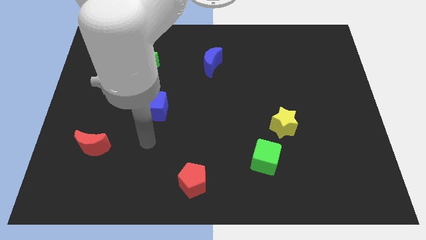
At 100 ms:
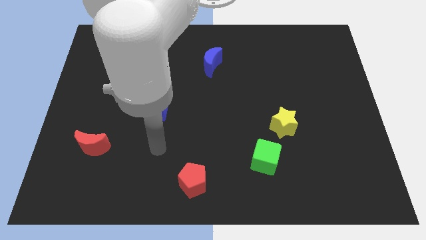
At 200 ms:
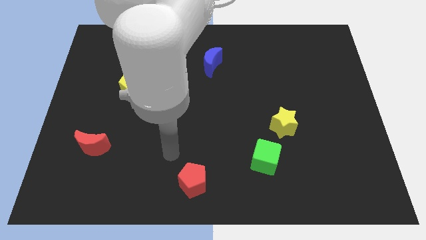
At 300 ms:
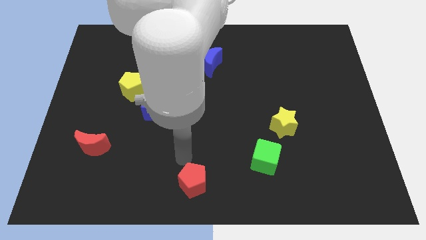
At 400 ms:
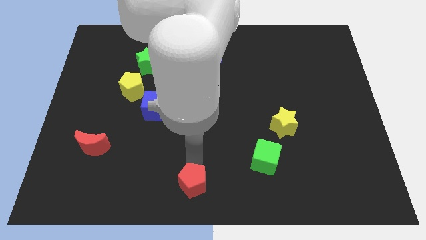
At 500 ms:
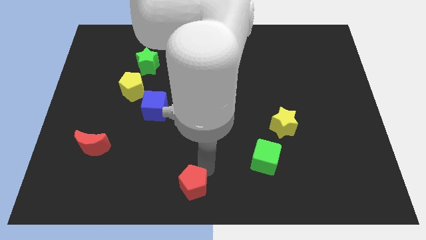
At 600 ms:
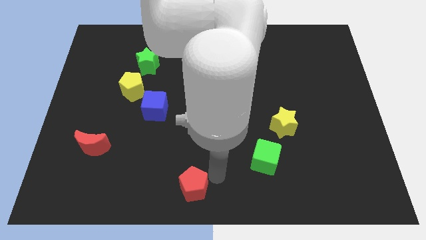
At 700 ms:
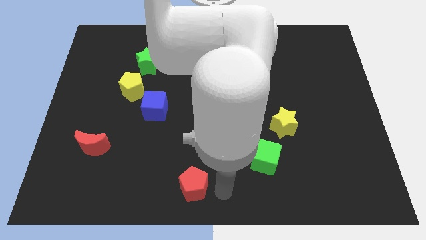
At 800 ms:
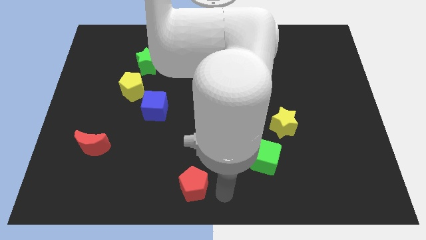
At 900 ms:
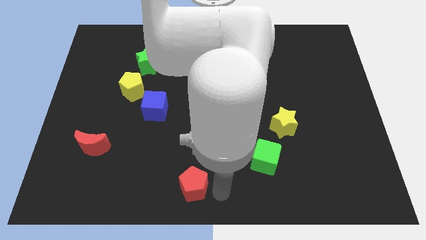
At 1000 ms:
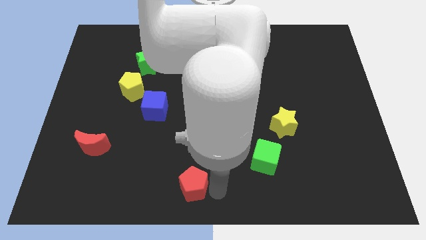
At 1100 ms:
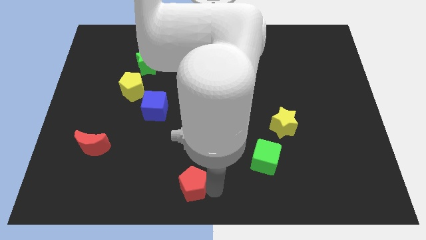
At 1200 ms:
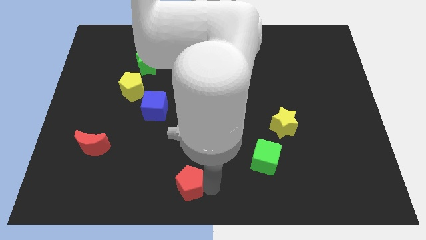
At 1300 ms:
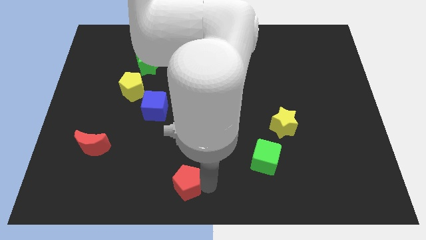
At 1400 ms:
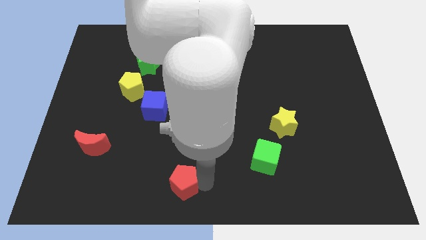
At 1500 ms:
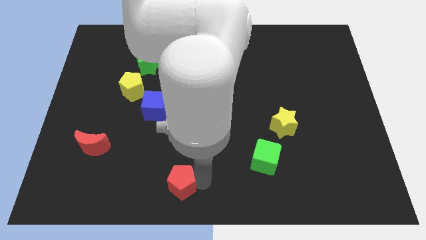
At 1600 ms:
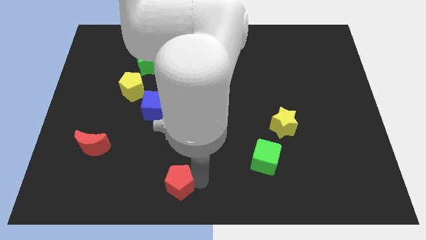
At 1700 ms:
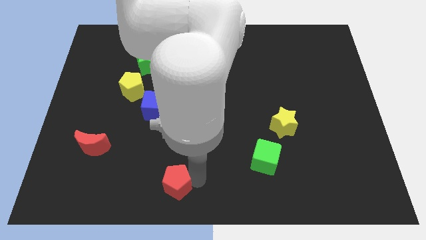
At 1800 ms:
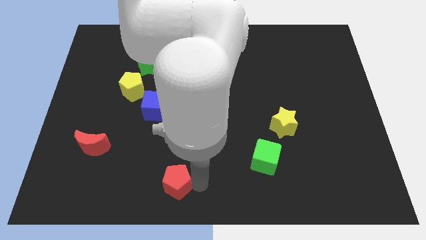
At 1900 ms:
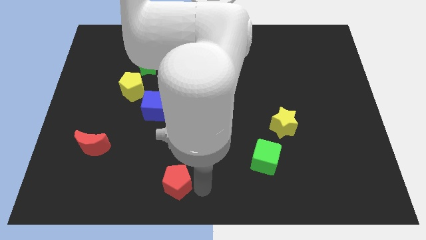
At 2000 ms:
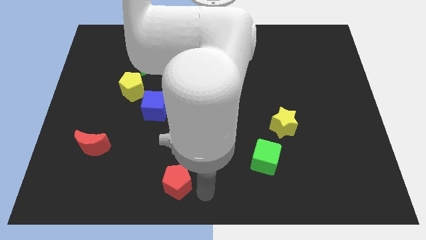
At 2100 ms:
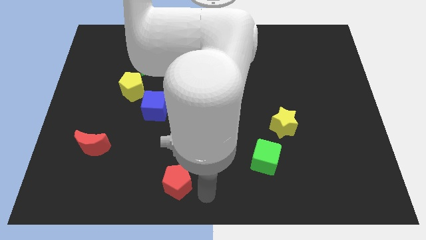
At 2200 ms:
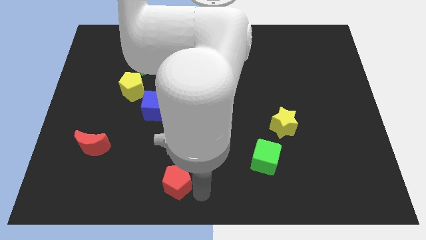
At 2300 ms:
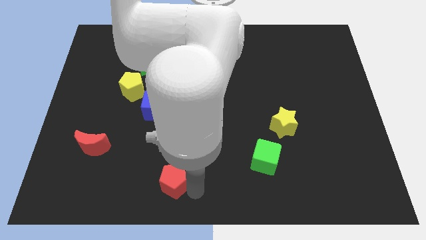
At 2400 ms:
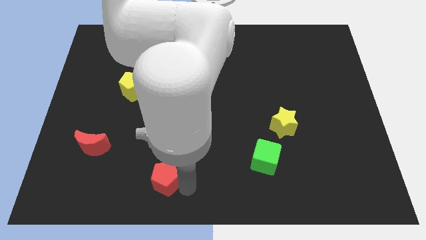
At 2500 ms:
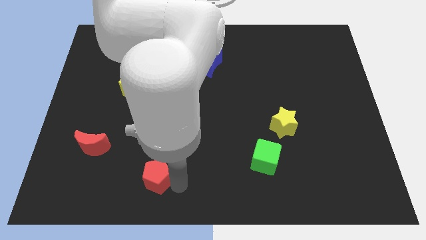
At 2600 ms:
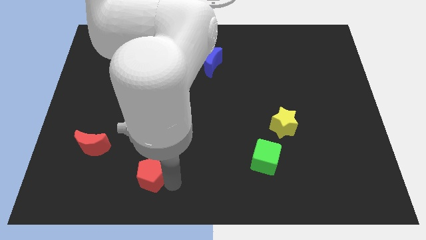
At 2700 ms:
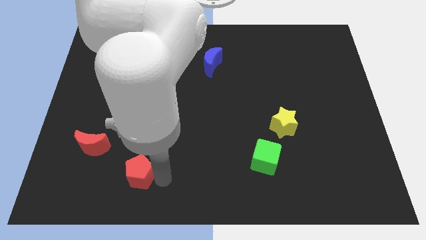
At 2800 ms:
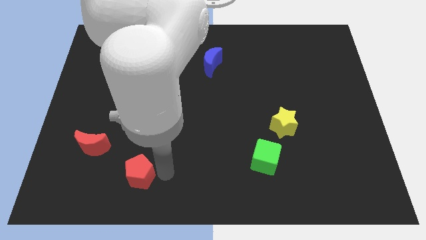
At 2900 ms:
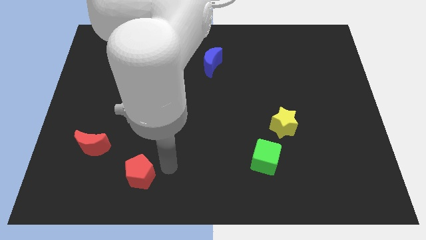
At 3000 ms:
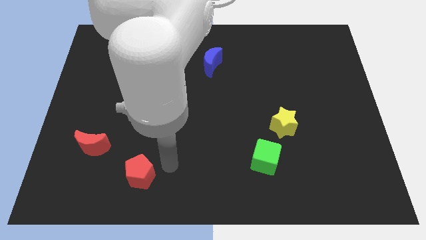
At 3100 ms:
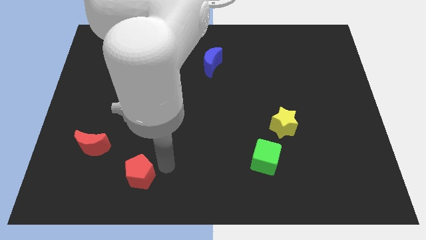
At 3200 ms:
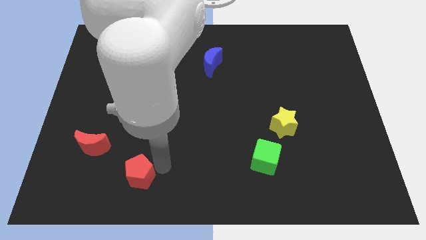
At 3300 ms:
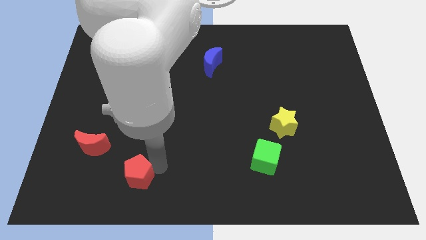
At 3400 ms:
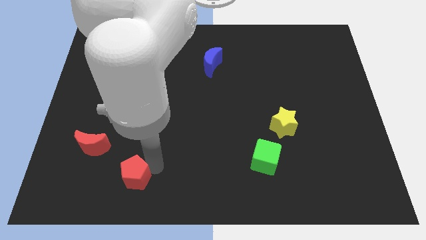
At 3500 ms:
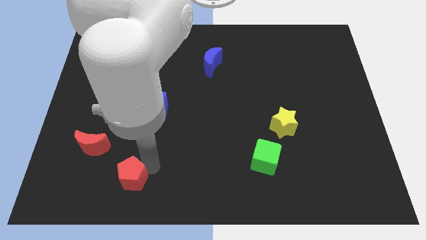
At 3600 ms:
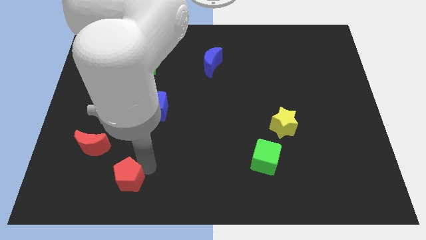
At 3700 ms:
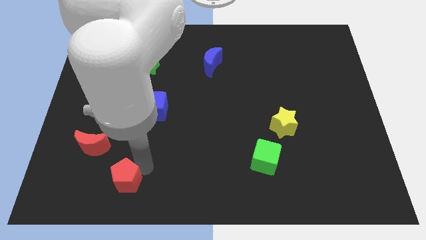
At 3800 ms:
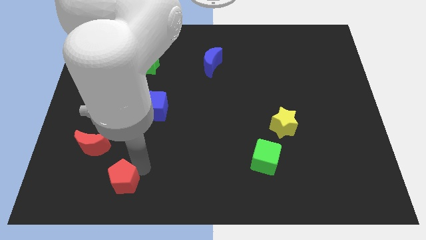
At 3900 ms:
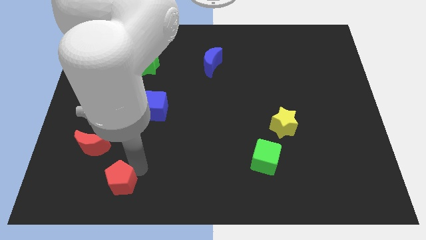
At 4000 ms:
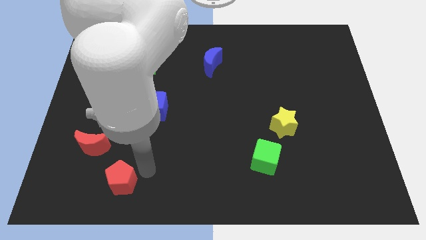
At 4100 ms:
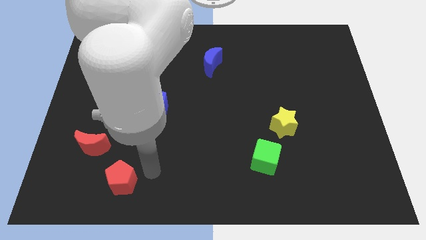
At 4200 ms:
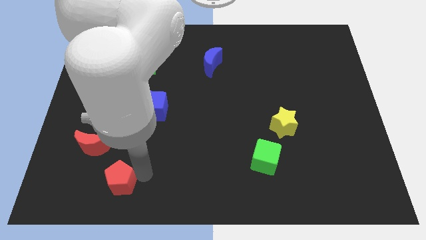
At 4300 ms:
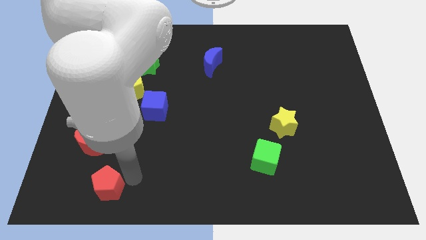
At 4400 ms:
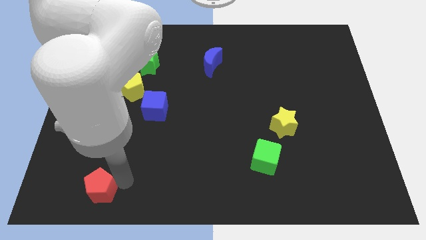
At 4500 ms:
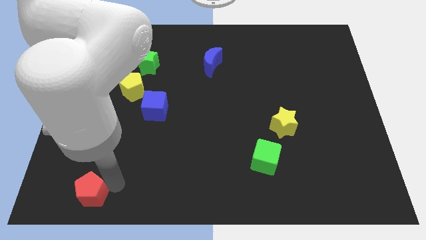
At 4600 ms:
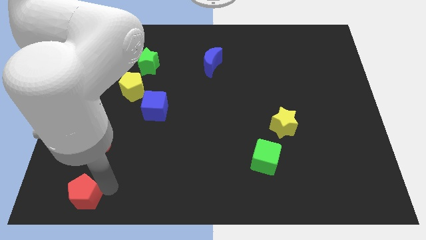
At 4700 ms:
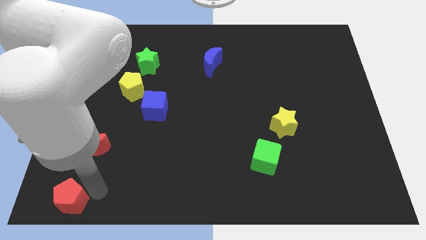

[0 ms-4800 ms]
put the red pentagon to the bottom left of the board

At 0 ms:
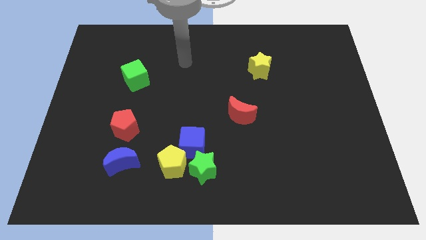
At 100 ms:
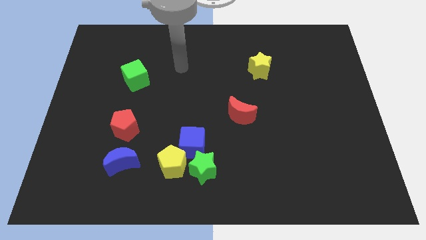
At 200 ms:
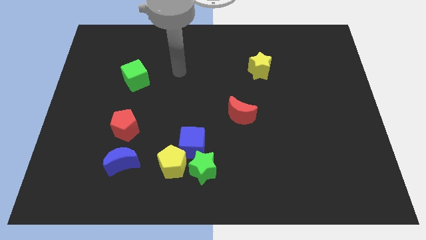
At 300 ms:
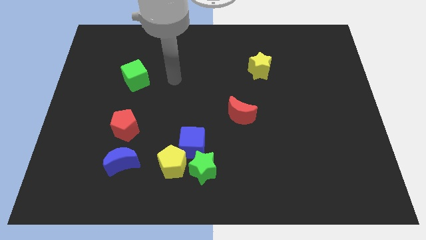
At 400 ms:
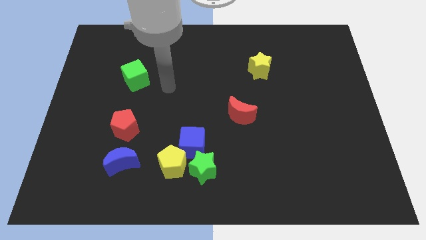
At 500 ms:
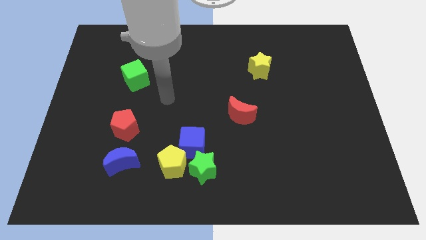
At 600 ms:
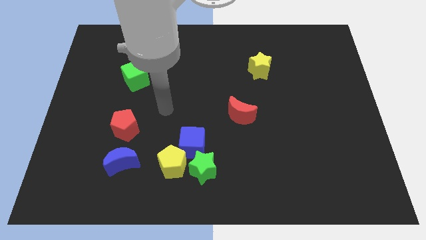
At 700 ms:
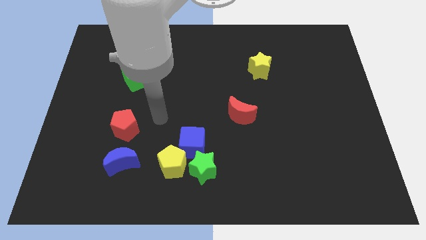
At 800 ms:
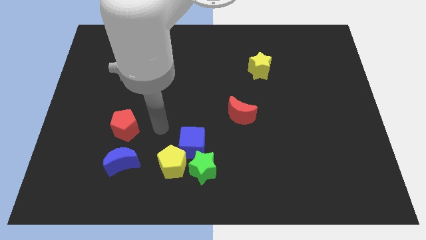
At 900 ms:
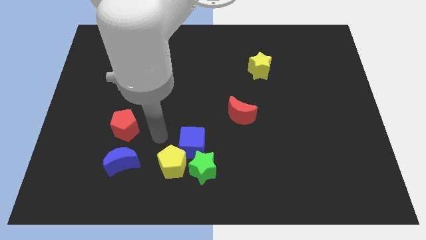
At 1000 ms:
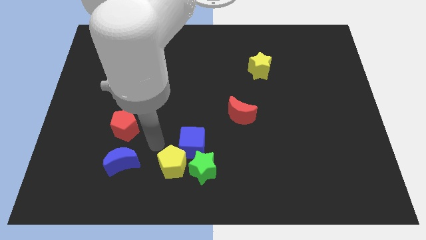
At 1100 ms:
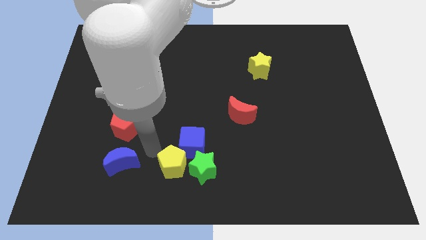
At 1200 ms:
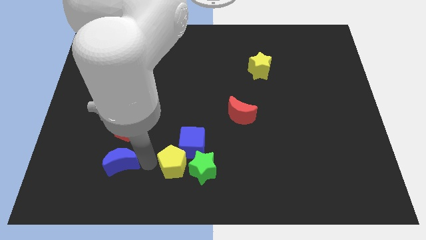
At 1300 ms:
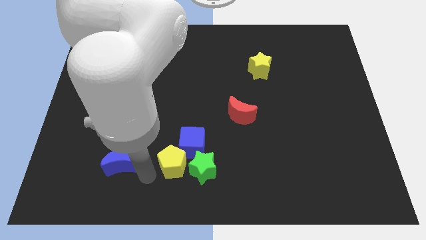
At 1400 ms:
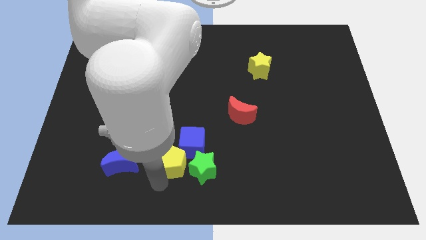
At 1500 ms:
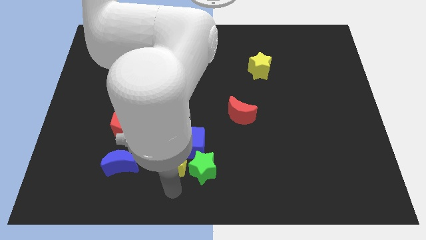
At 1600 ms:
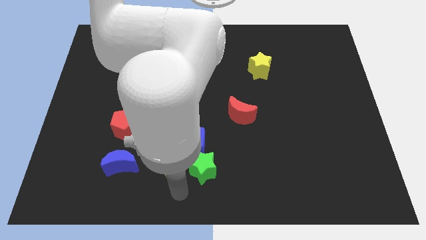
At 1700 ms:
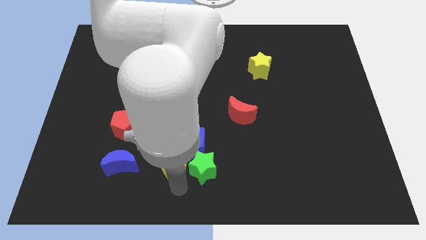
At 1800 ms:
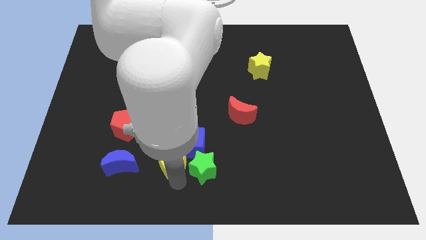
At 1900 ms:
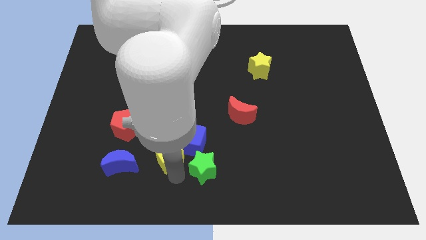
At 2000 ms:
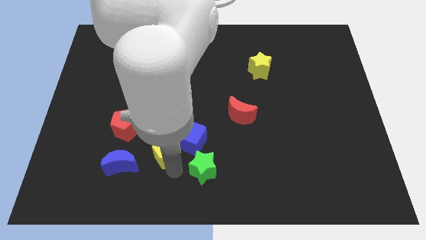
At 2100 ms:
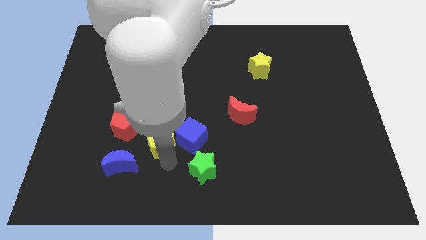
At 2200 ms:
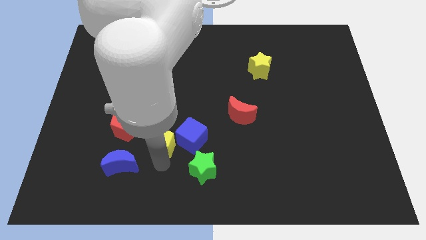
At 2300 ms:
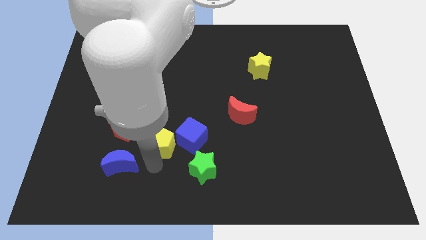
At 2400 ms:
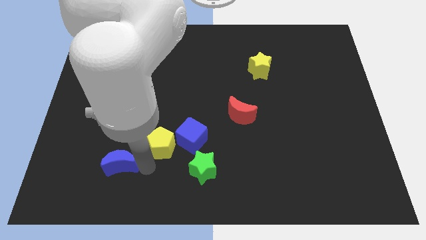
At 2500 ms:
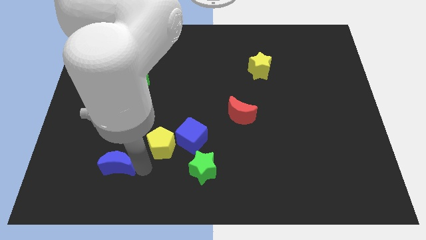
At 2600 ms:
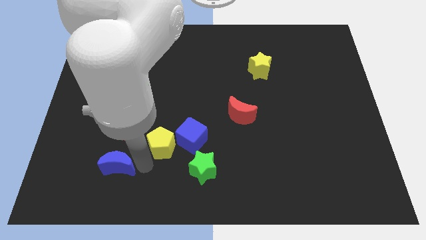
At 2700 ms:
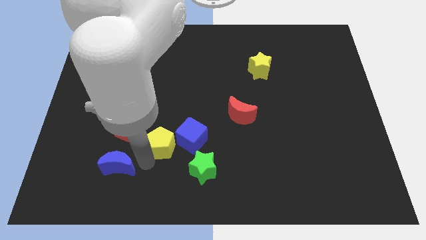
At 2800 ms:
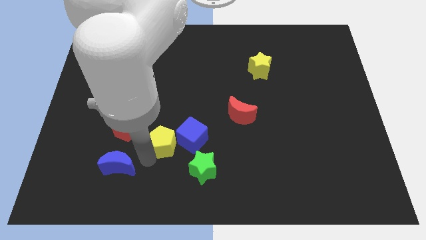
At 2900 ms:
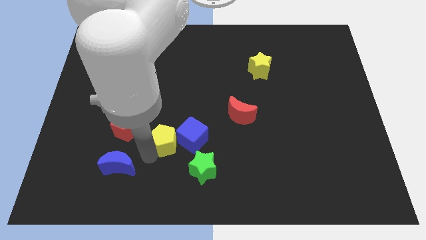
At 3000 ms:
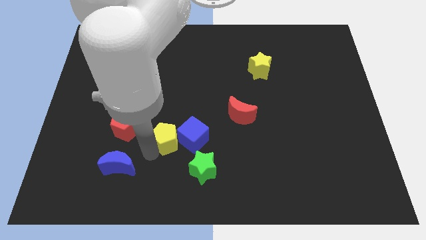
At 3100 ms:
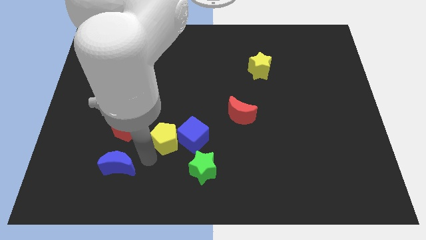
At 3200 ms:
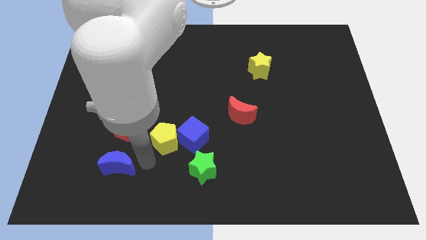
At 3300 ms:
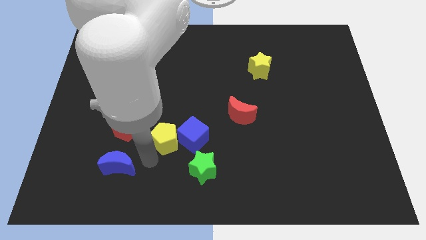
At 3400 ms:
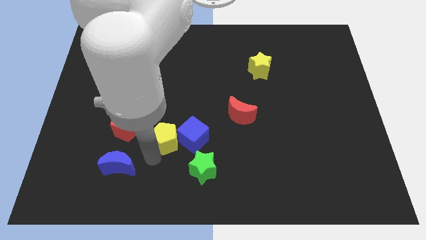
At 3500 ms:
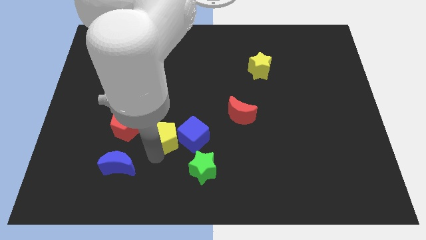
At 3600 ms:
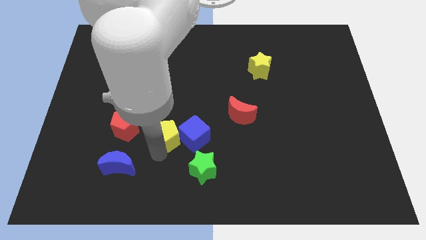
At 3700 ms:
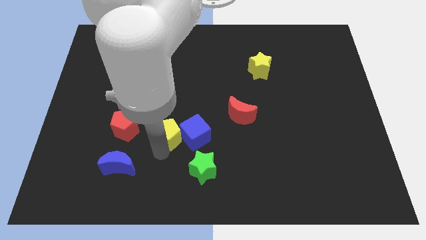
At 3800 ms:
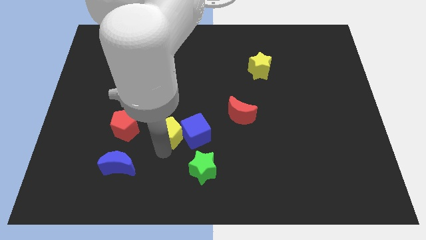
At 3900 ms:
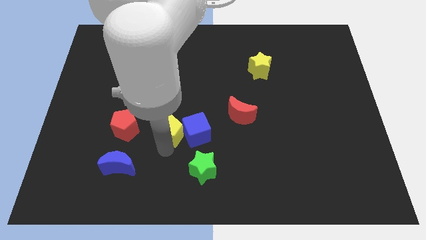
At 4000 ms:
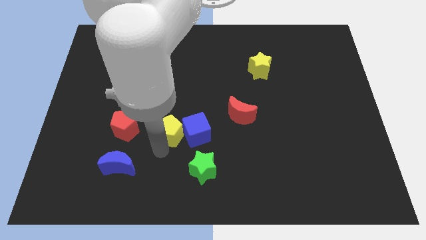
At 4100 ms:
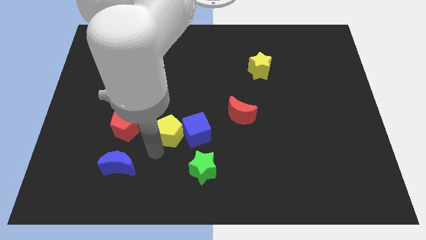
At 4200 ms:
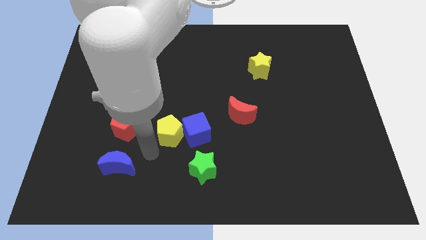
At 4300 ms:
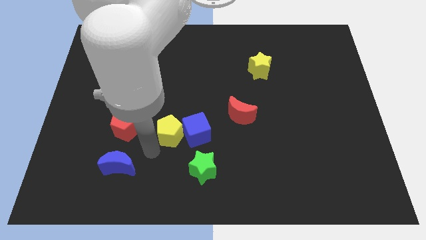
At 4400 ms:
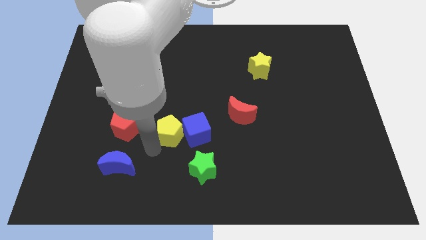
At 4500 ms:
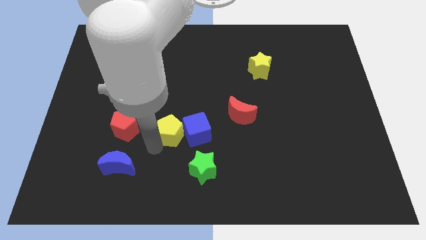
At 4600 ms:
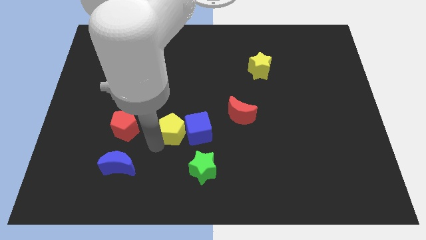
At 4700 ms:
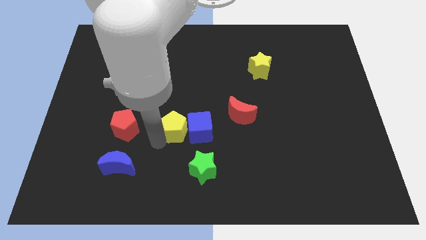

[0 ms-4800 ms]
move the yellow pentagon to the middle of the board
